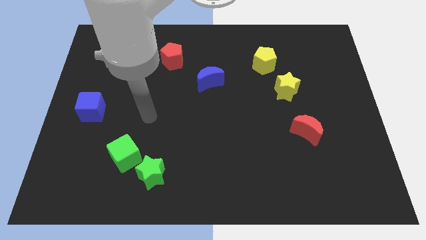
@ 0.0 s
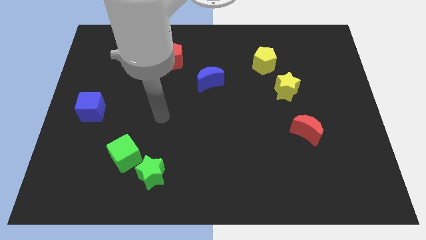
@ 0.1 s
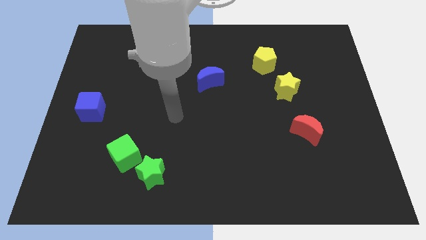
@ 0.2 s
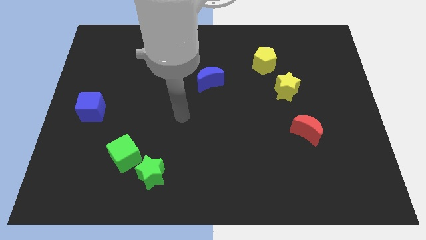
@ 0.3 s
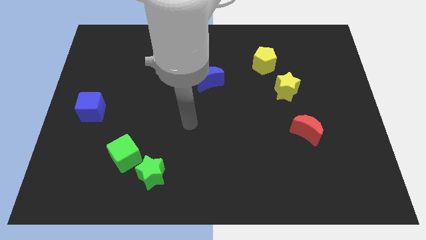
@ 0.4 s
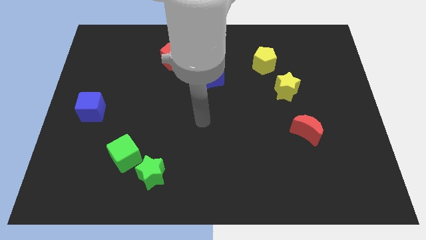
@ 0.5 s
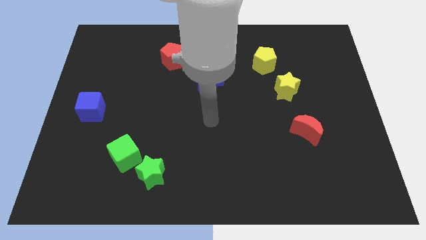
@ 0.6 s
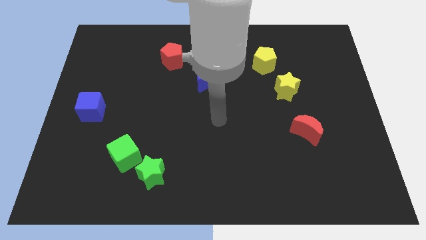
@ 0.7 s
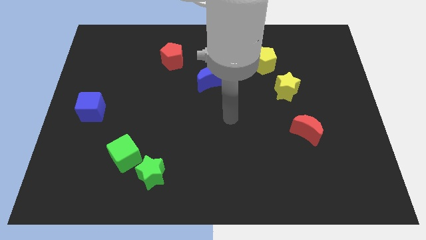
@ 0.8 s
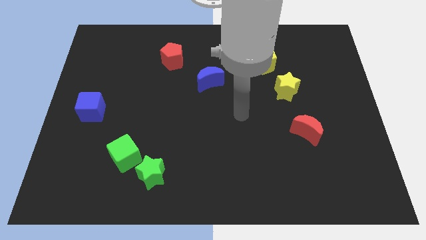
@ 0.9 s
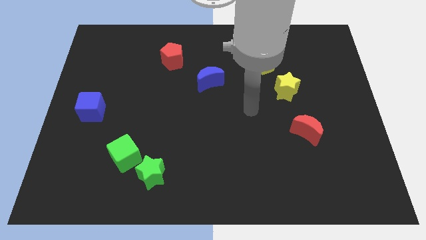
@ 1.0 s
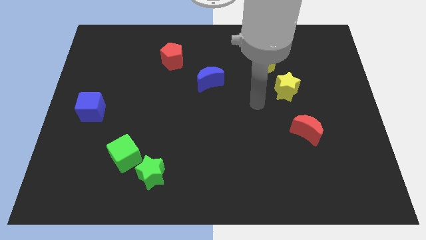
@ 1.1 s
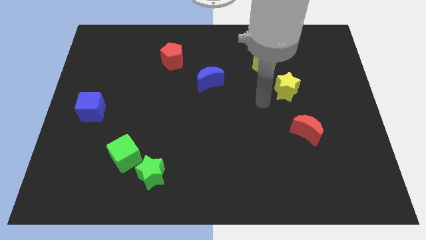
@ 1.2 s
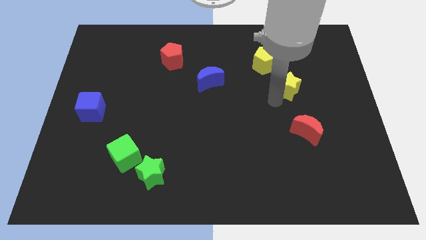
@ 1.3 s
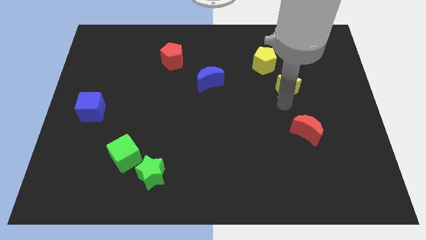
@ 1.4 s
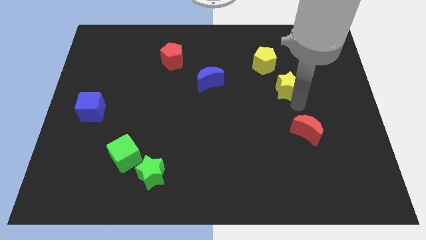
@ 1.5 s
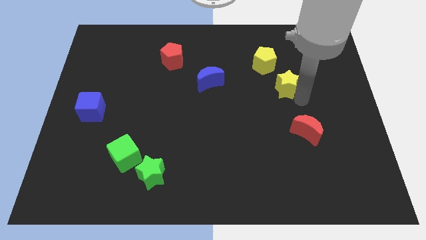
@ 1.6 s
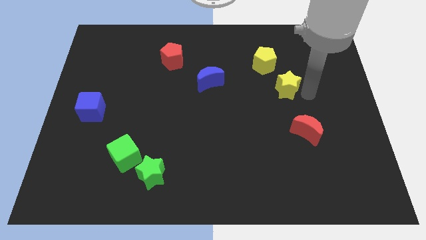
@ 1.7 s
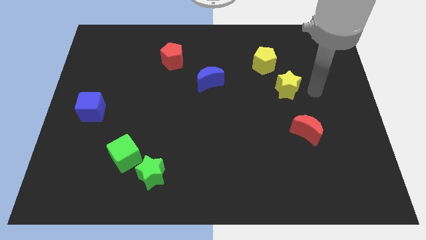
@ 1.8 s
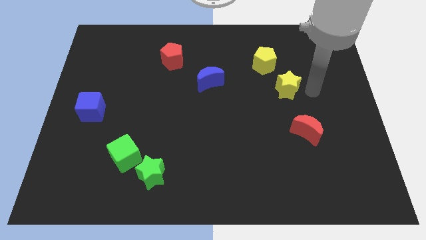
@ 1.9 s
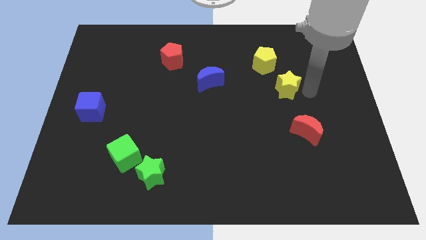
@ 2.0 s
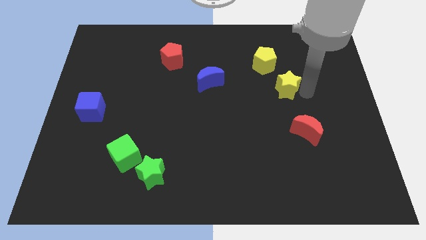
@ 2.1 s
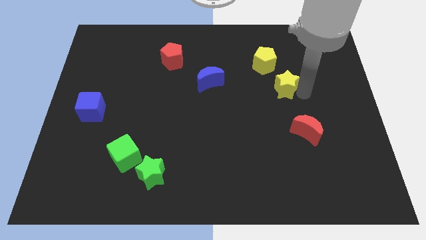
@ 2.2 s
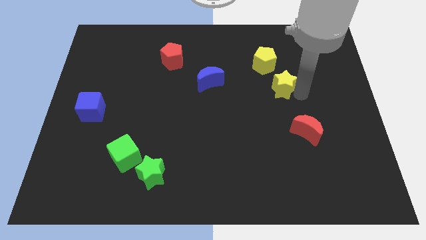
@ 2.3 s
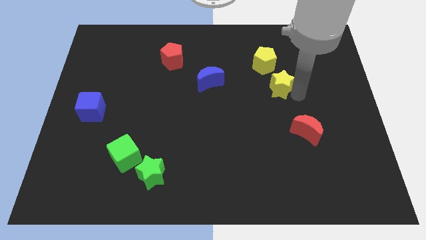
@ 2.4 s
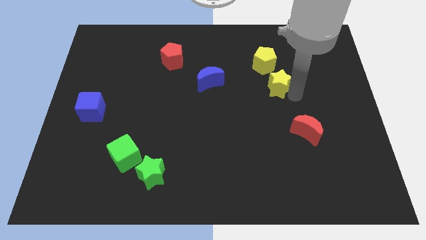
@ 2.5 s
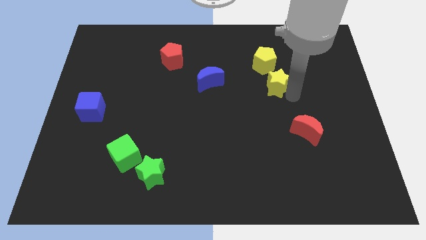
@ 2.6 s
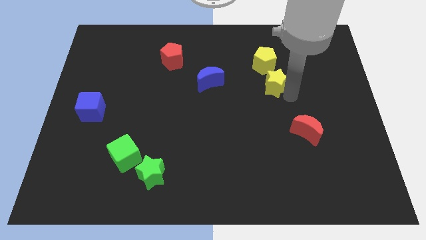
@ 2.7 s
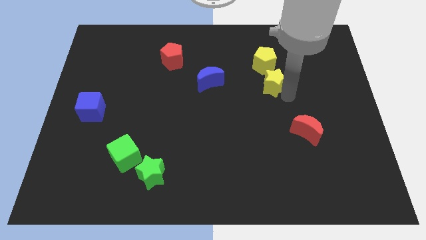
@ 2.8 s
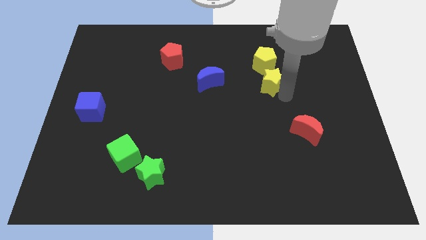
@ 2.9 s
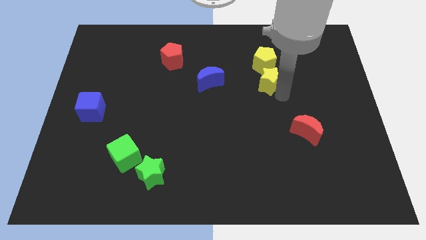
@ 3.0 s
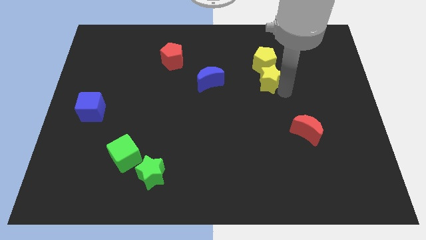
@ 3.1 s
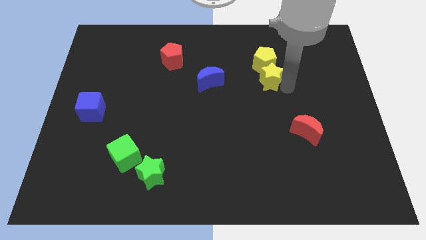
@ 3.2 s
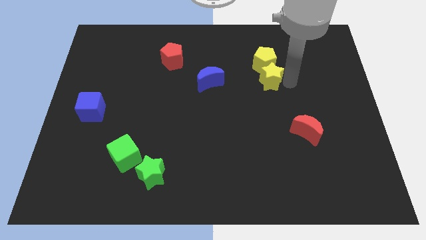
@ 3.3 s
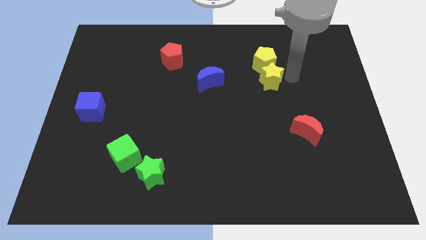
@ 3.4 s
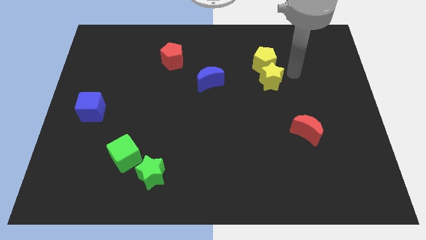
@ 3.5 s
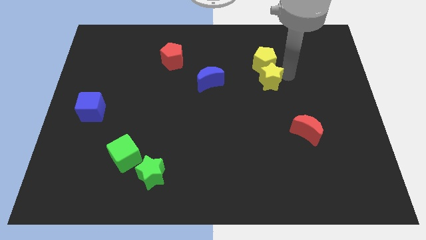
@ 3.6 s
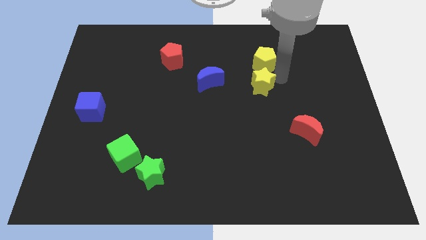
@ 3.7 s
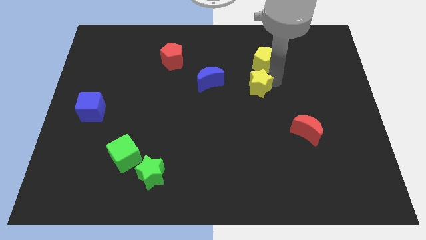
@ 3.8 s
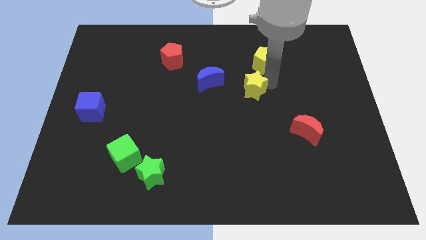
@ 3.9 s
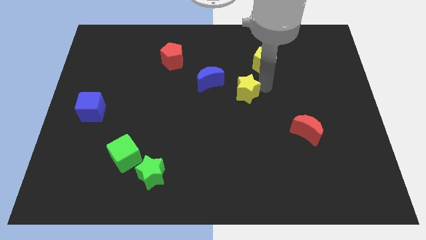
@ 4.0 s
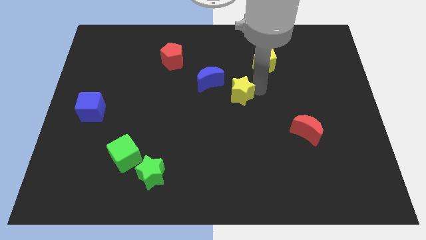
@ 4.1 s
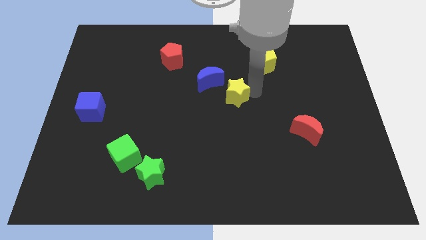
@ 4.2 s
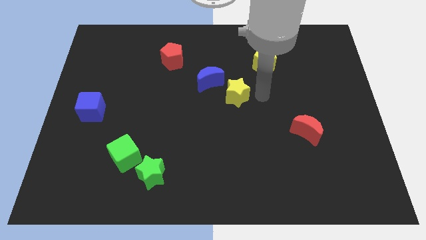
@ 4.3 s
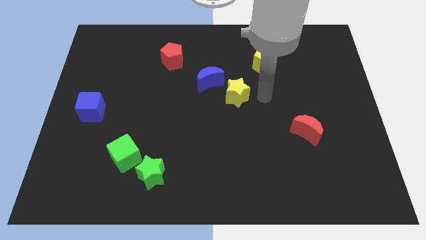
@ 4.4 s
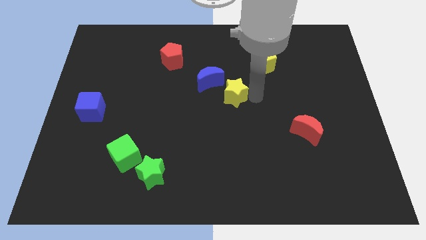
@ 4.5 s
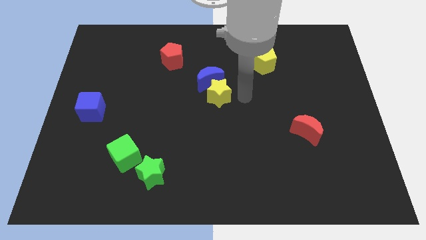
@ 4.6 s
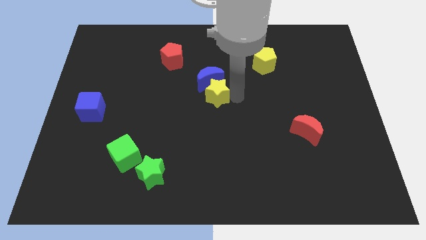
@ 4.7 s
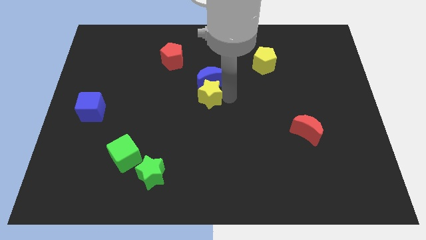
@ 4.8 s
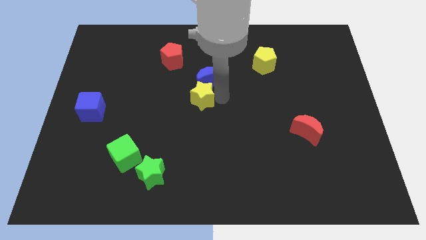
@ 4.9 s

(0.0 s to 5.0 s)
push the yellow star left

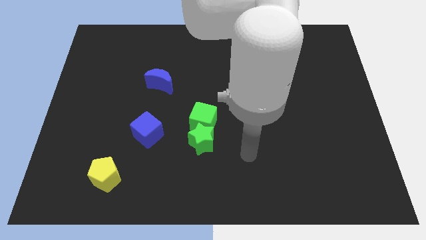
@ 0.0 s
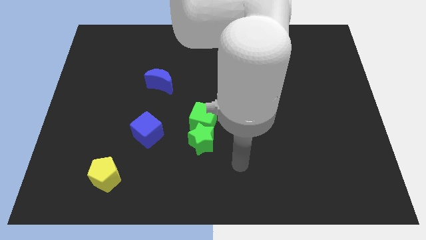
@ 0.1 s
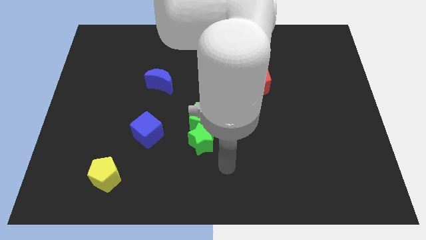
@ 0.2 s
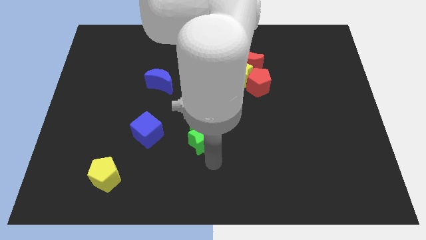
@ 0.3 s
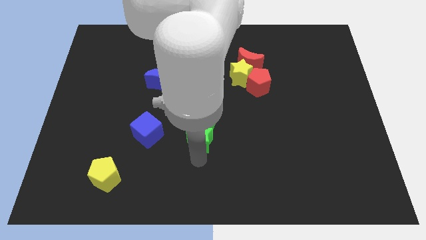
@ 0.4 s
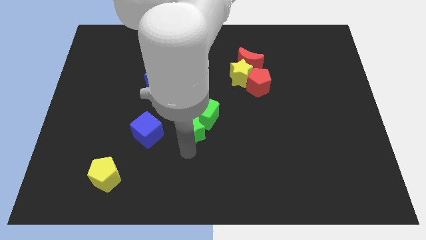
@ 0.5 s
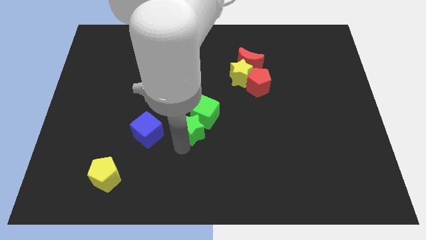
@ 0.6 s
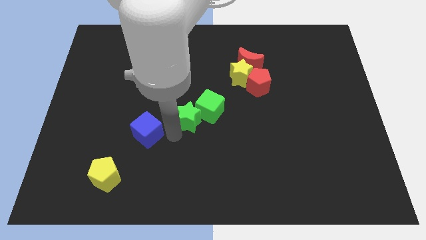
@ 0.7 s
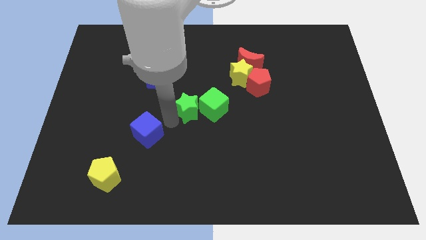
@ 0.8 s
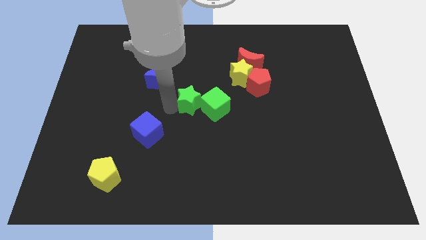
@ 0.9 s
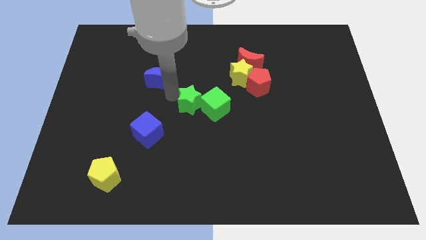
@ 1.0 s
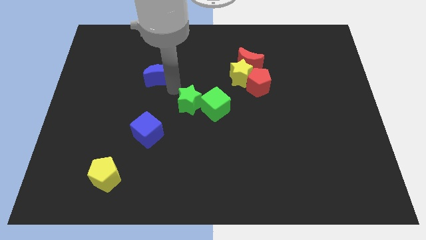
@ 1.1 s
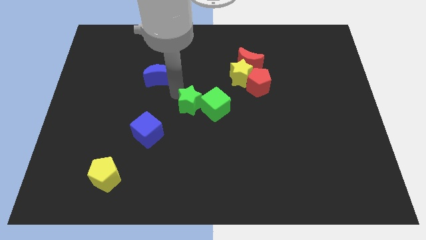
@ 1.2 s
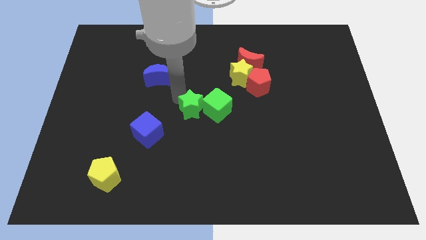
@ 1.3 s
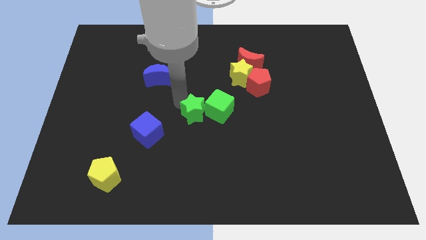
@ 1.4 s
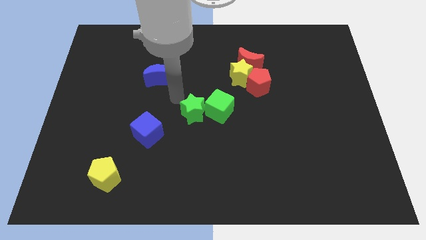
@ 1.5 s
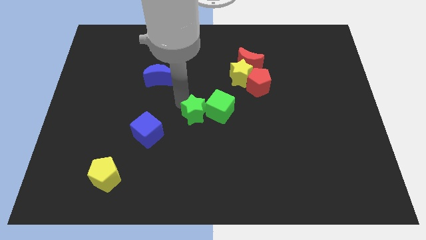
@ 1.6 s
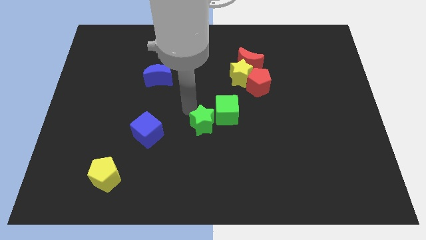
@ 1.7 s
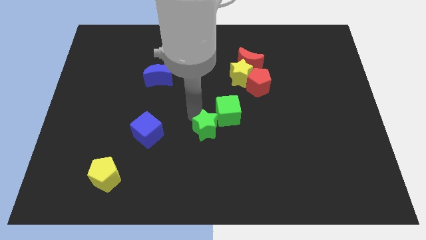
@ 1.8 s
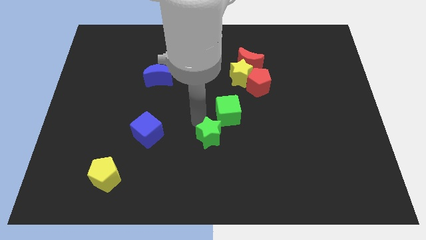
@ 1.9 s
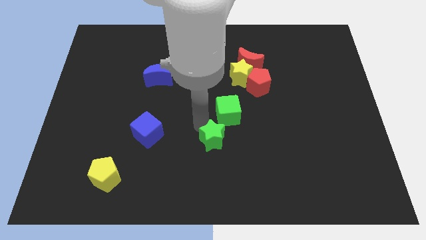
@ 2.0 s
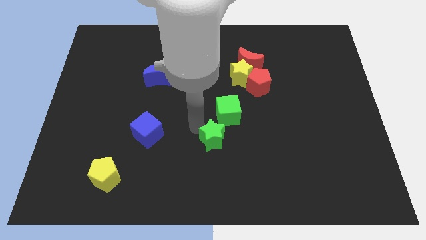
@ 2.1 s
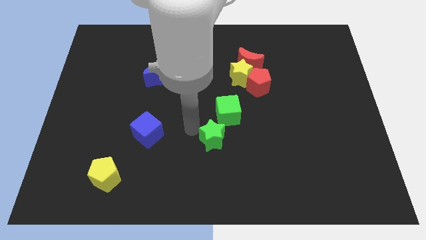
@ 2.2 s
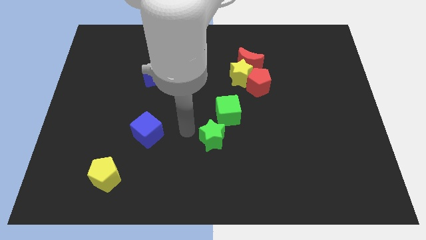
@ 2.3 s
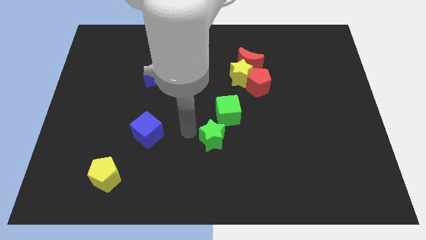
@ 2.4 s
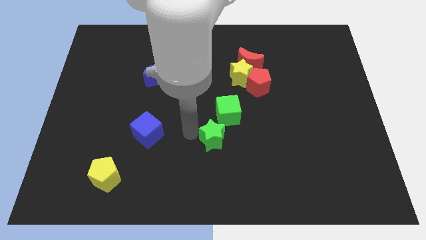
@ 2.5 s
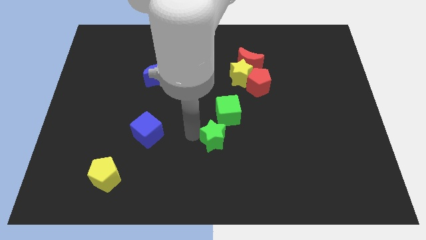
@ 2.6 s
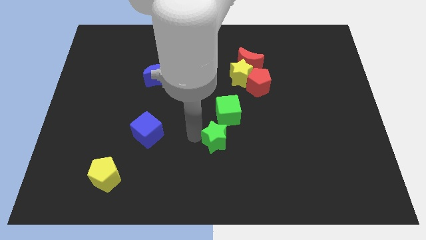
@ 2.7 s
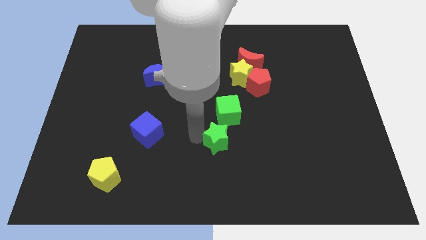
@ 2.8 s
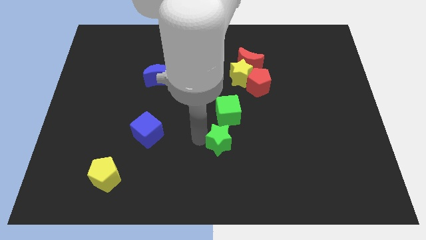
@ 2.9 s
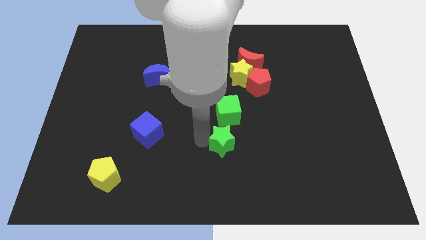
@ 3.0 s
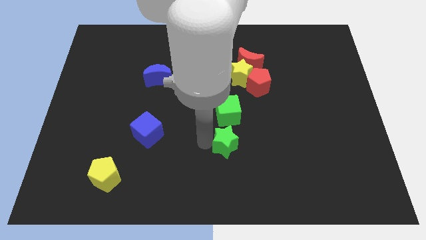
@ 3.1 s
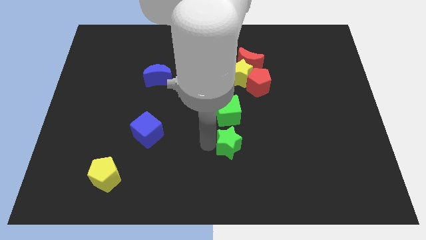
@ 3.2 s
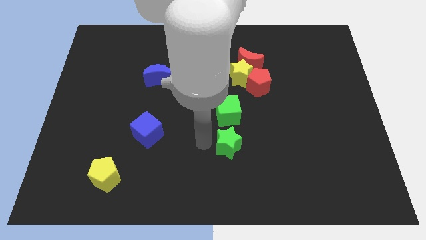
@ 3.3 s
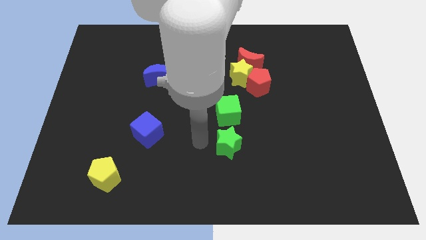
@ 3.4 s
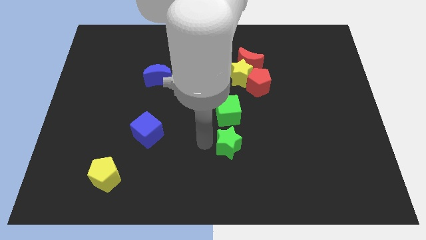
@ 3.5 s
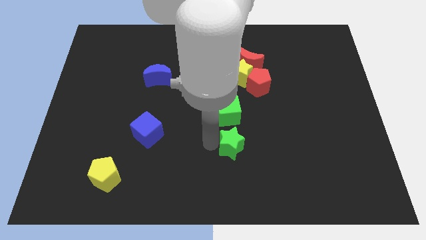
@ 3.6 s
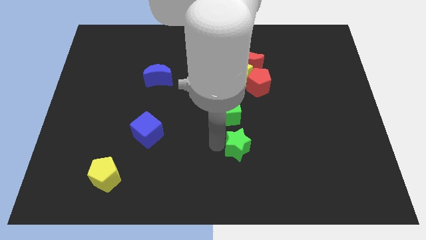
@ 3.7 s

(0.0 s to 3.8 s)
slightly move the green star right
